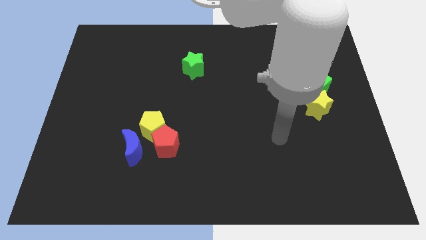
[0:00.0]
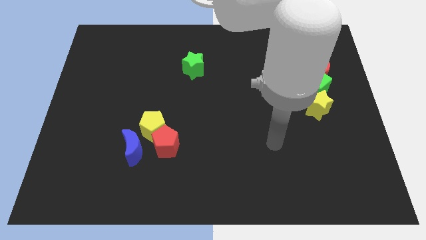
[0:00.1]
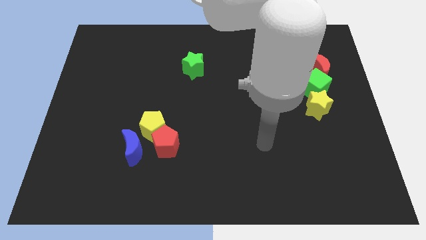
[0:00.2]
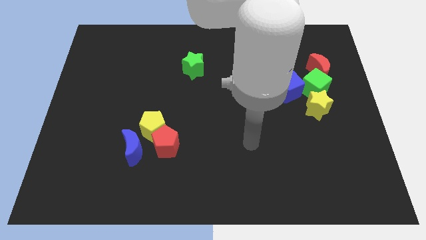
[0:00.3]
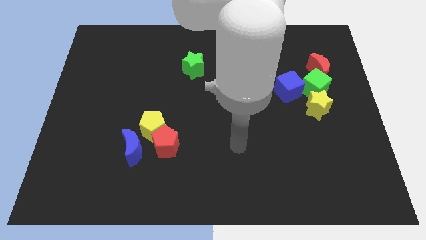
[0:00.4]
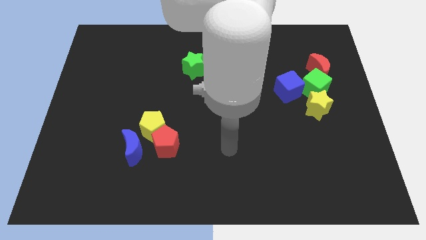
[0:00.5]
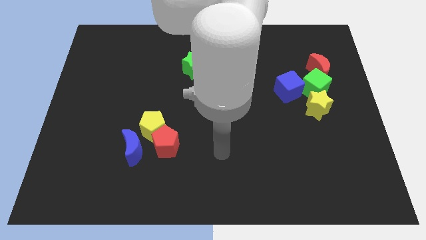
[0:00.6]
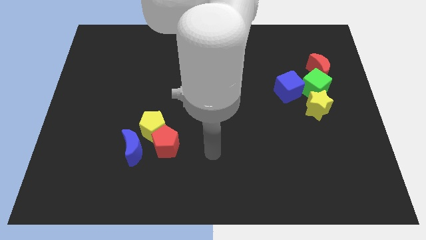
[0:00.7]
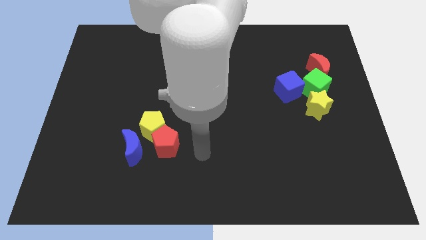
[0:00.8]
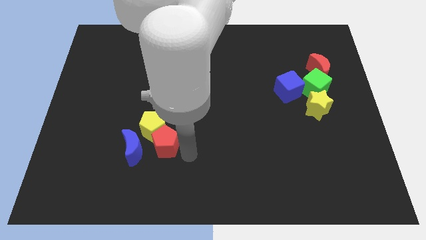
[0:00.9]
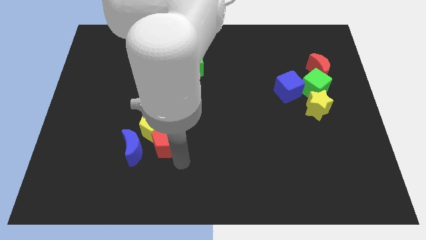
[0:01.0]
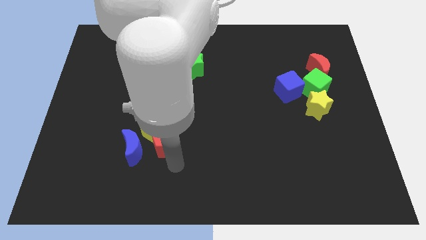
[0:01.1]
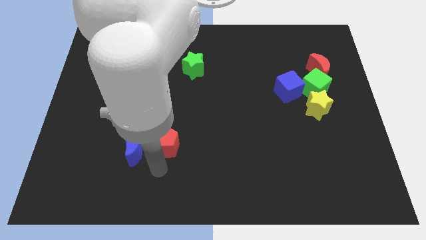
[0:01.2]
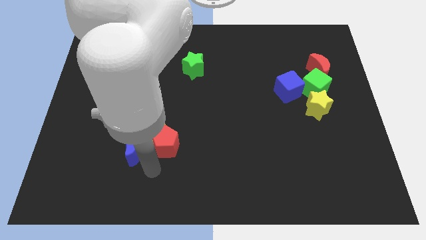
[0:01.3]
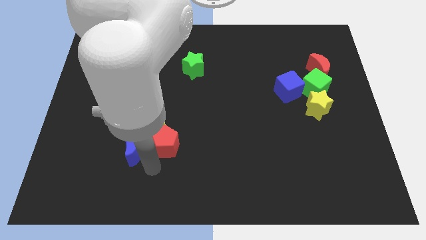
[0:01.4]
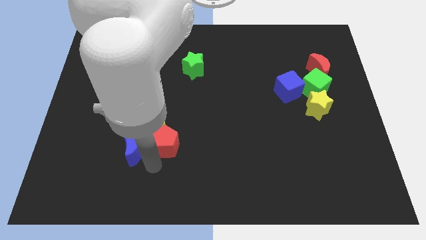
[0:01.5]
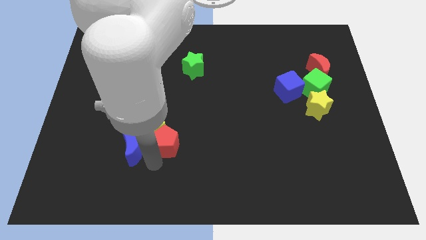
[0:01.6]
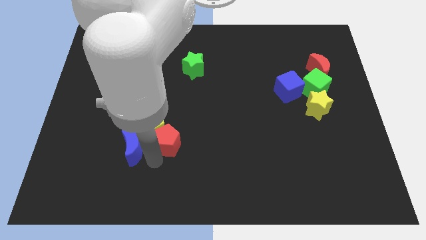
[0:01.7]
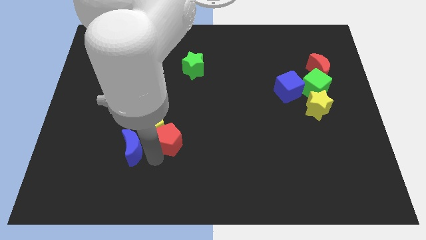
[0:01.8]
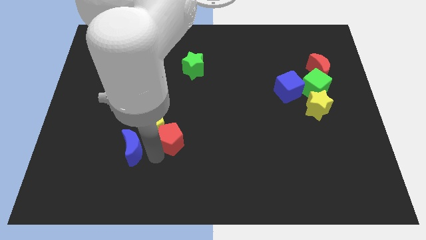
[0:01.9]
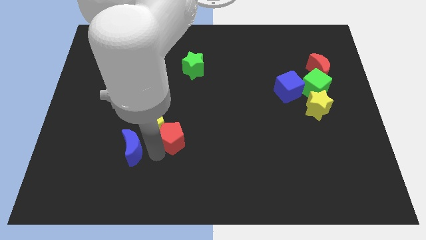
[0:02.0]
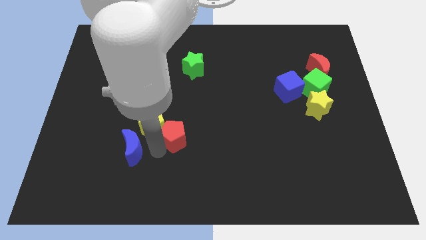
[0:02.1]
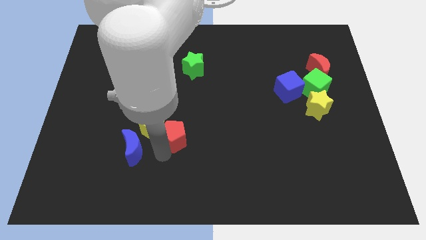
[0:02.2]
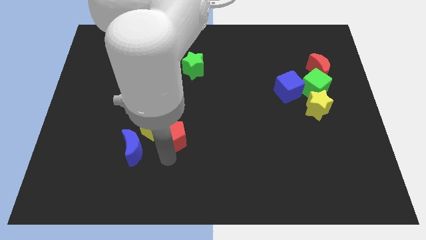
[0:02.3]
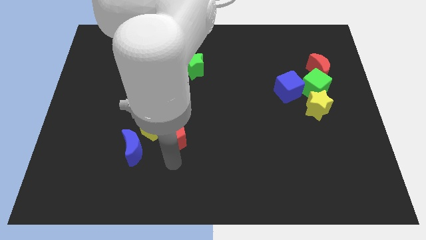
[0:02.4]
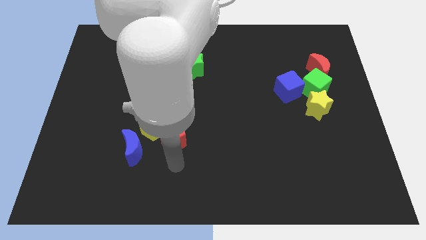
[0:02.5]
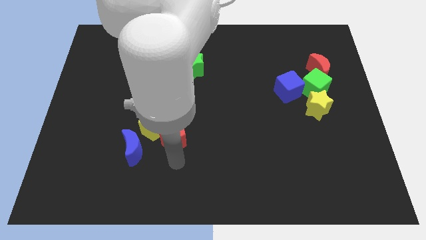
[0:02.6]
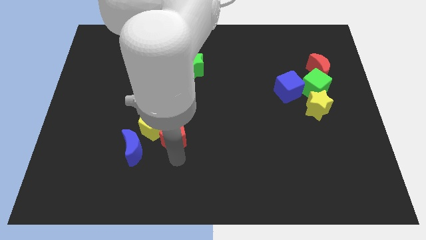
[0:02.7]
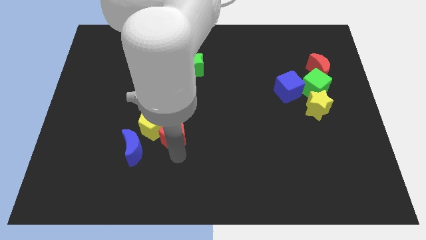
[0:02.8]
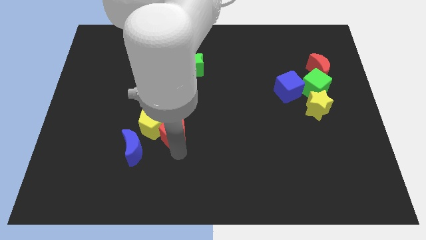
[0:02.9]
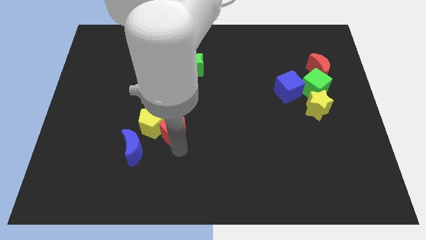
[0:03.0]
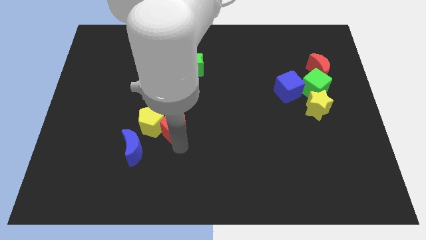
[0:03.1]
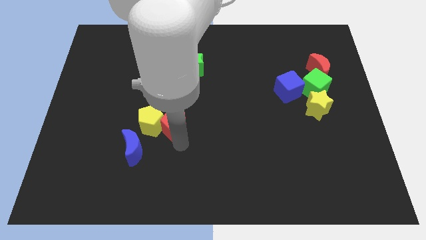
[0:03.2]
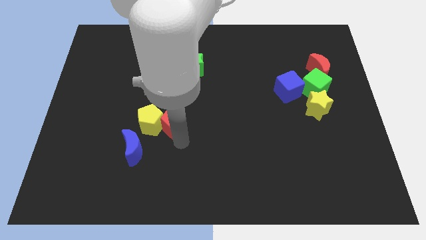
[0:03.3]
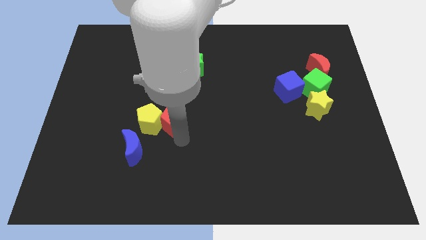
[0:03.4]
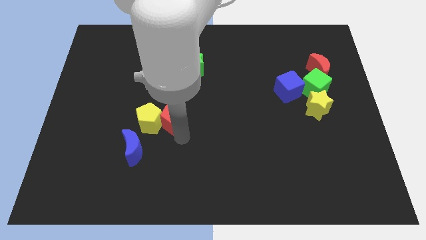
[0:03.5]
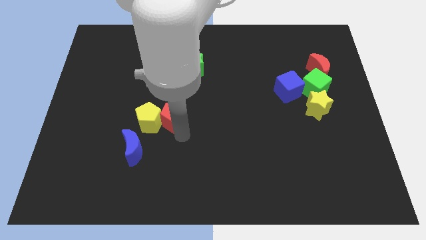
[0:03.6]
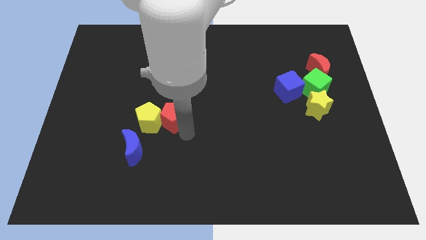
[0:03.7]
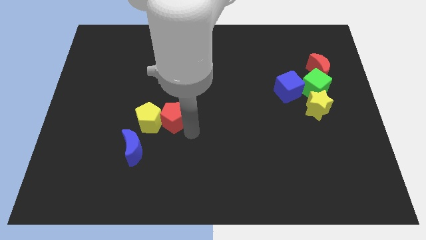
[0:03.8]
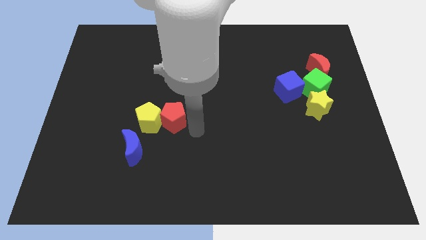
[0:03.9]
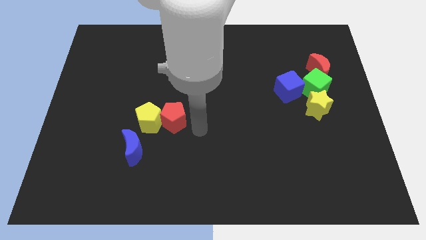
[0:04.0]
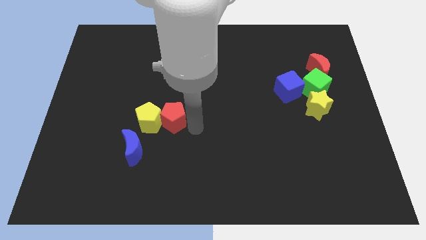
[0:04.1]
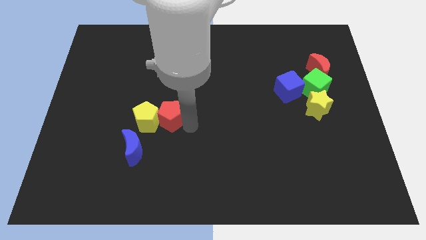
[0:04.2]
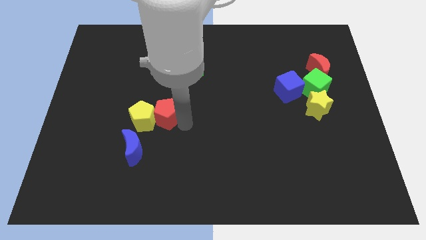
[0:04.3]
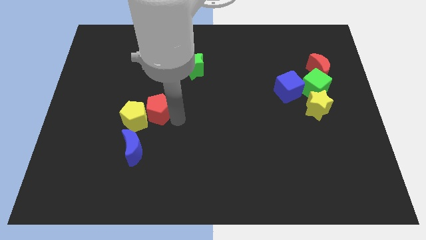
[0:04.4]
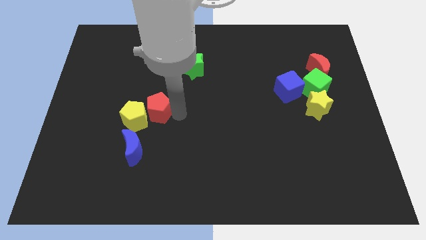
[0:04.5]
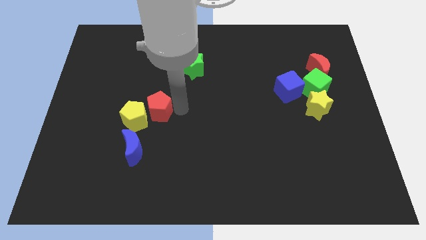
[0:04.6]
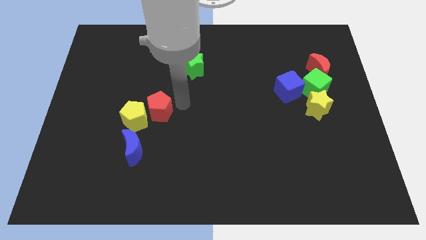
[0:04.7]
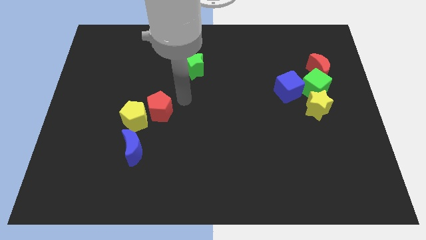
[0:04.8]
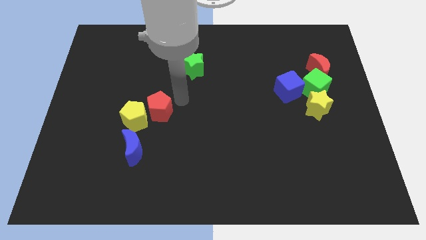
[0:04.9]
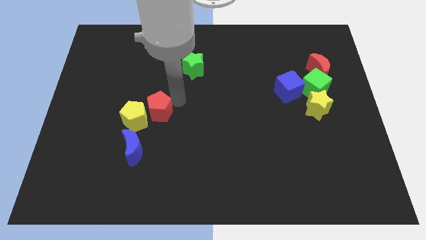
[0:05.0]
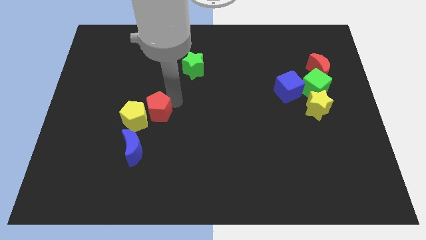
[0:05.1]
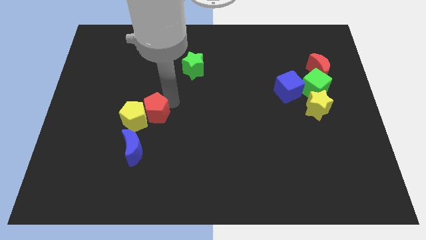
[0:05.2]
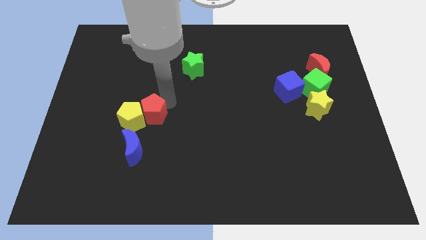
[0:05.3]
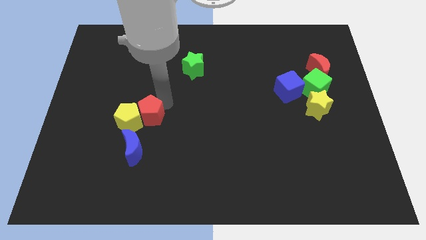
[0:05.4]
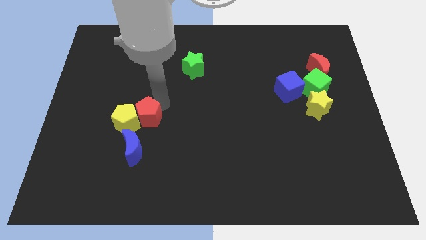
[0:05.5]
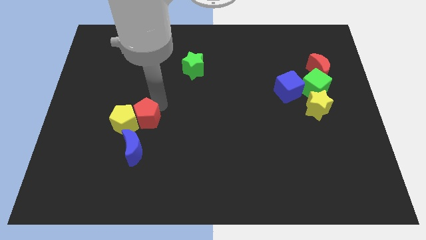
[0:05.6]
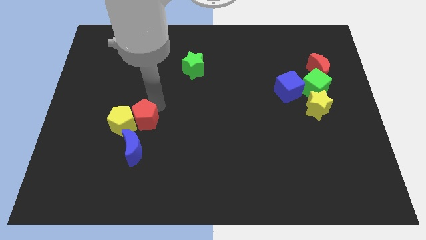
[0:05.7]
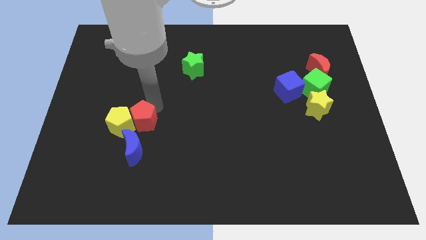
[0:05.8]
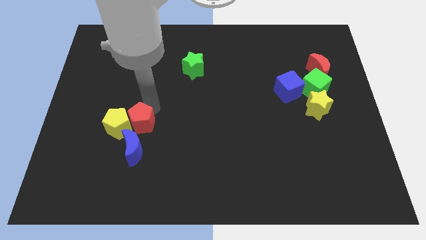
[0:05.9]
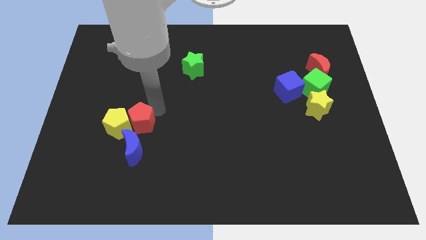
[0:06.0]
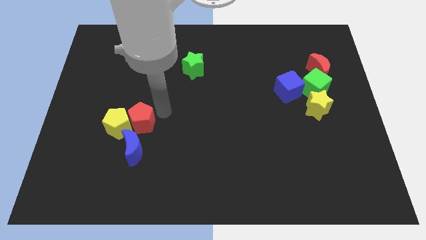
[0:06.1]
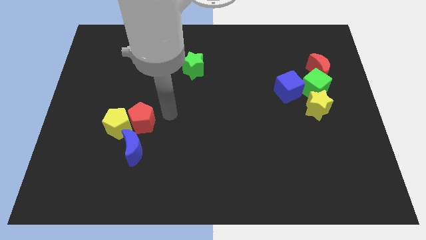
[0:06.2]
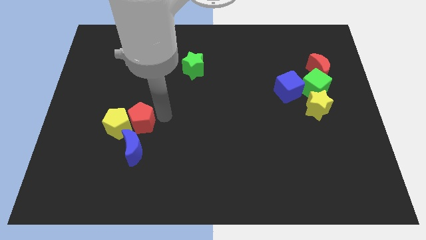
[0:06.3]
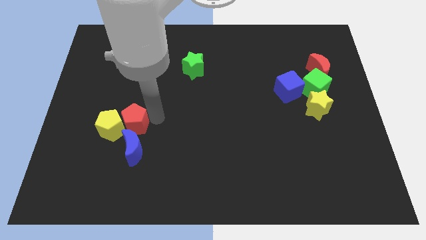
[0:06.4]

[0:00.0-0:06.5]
move the red pentagon to the top left side of the blue moon
